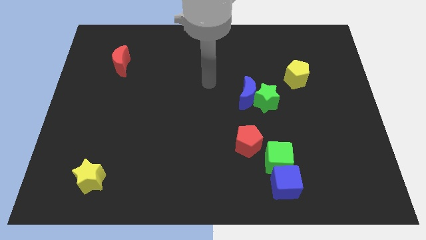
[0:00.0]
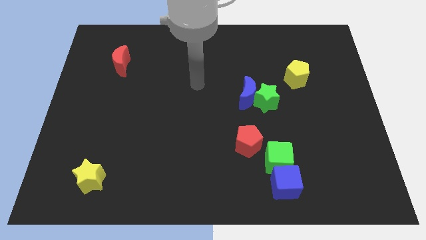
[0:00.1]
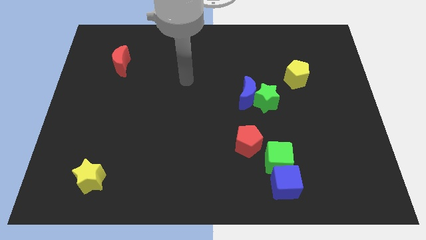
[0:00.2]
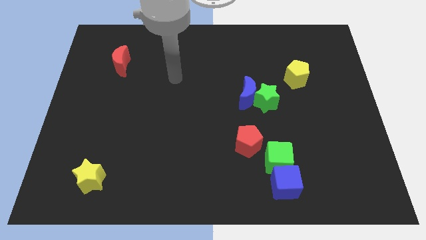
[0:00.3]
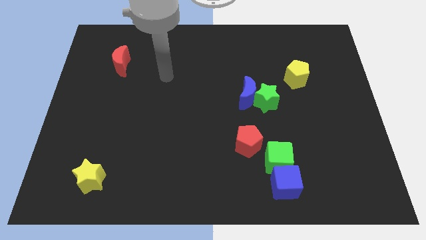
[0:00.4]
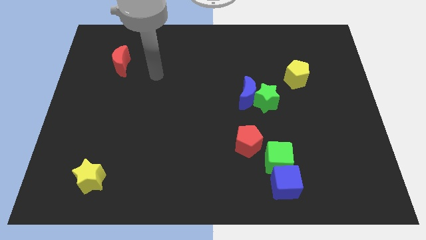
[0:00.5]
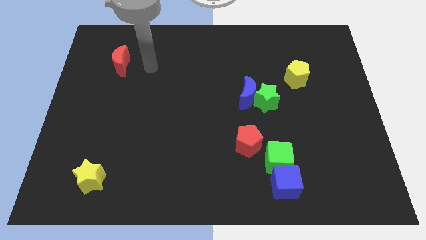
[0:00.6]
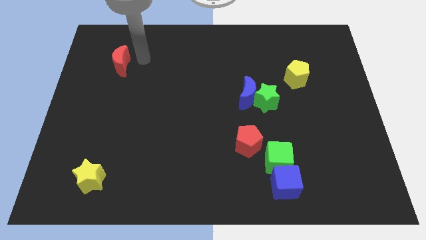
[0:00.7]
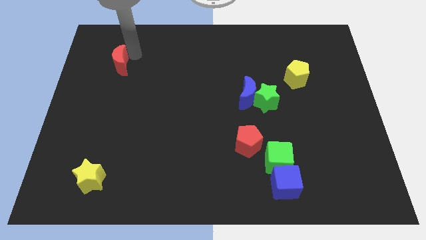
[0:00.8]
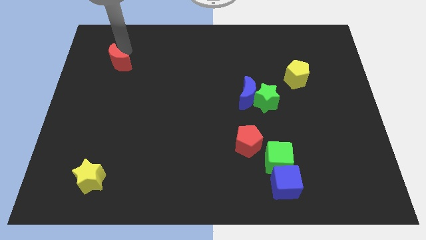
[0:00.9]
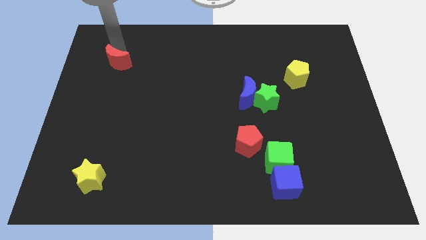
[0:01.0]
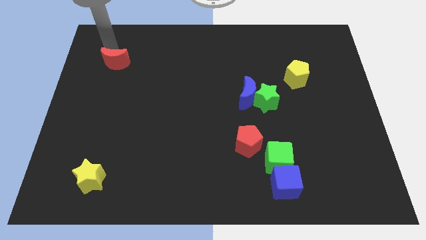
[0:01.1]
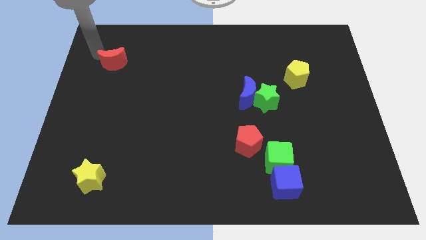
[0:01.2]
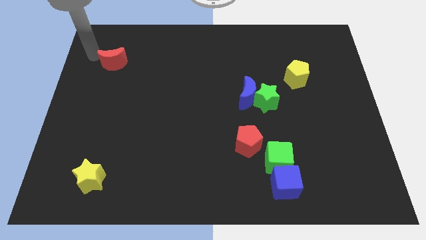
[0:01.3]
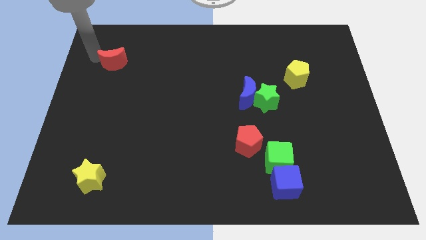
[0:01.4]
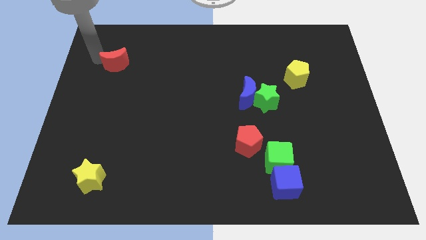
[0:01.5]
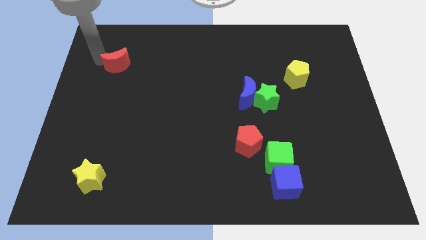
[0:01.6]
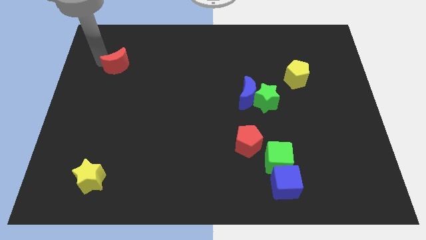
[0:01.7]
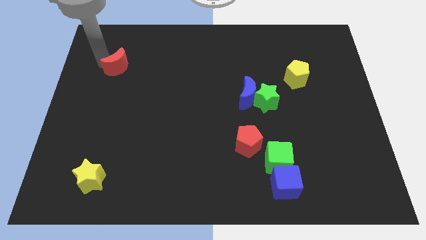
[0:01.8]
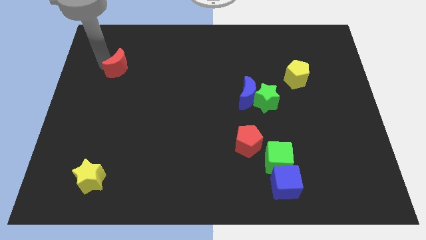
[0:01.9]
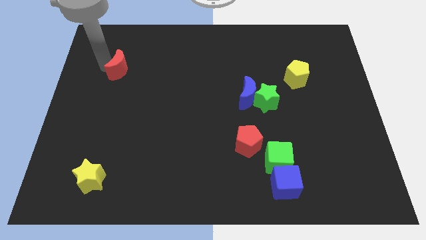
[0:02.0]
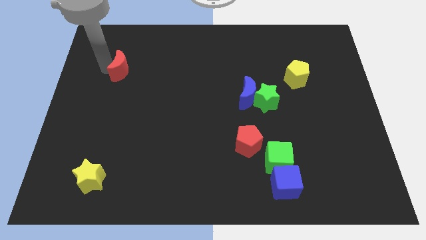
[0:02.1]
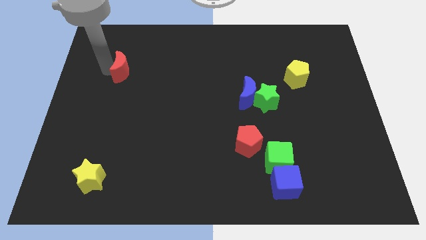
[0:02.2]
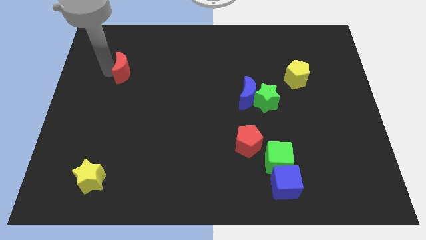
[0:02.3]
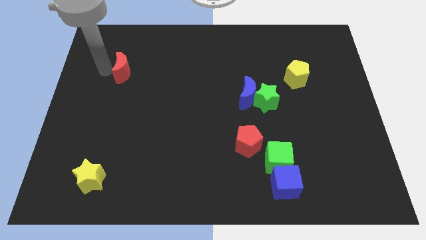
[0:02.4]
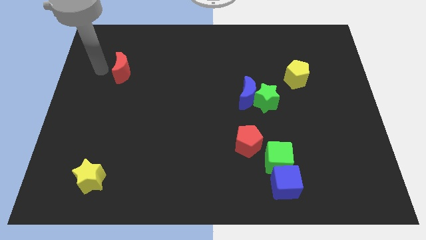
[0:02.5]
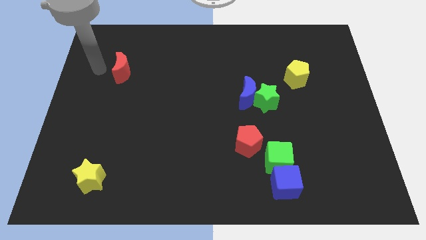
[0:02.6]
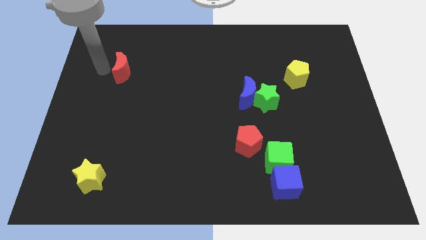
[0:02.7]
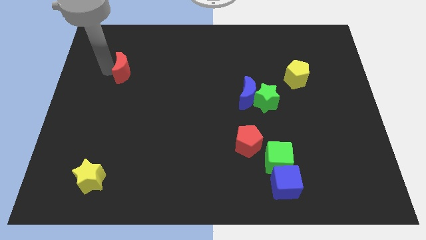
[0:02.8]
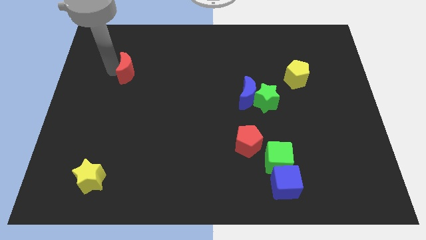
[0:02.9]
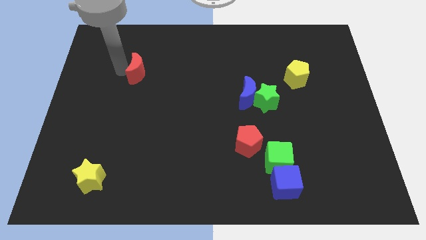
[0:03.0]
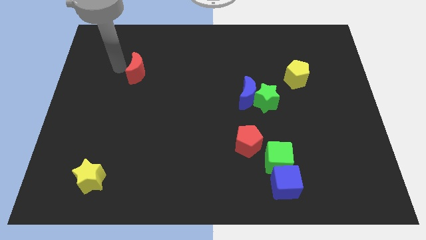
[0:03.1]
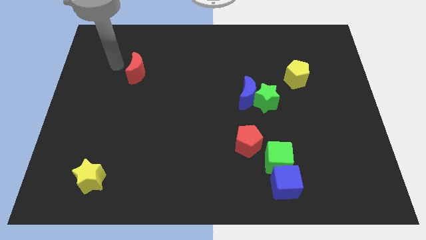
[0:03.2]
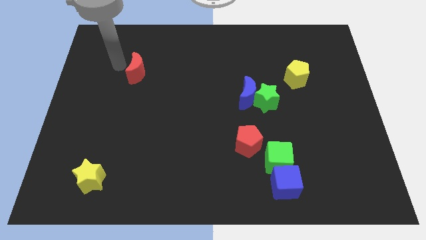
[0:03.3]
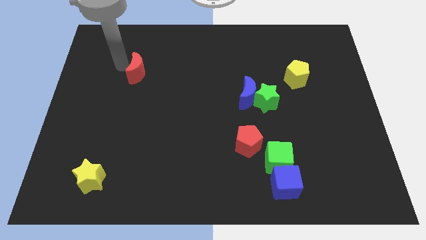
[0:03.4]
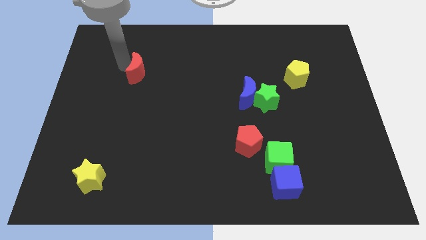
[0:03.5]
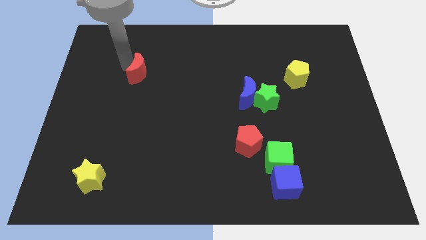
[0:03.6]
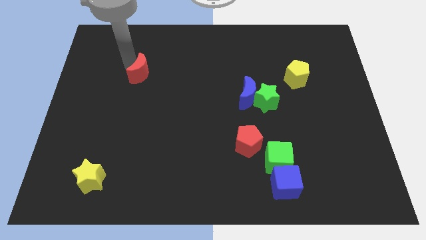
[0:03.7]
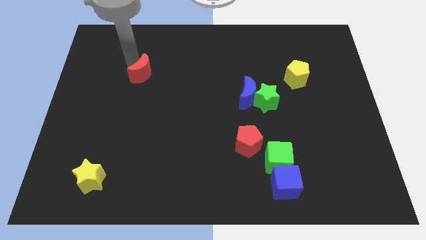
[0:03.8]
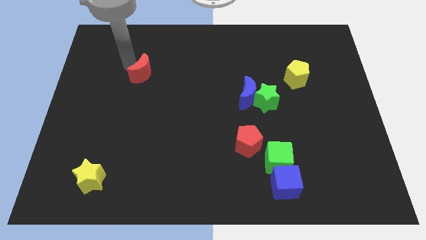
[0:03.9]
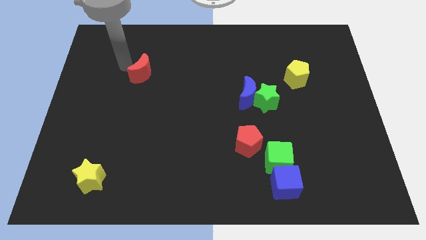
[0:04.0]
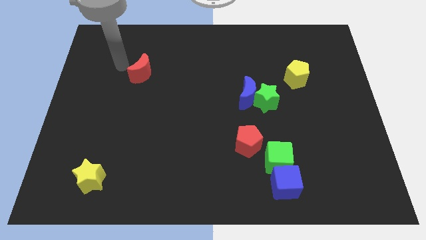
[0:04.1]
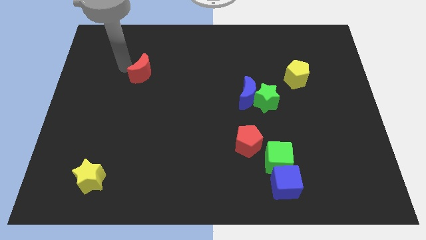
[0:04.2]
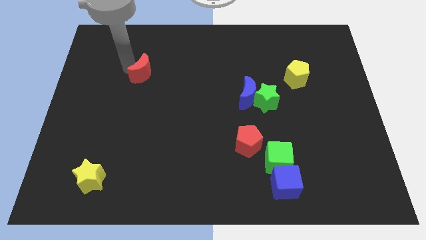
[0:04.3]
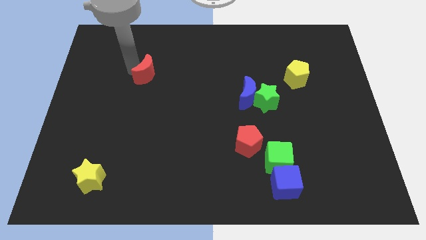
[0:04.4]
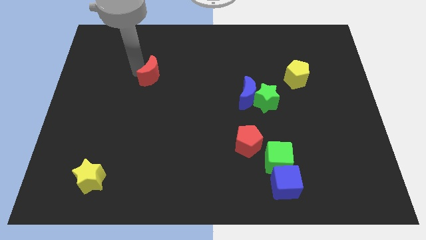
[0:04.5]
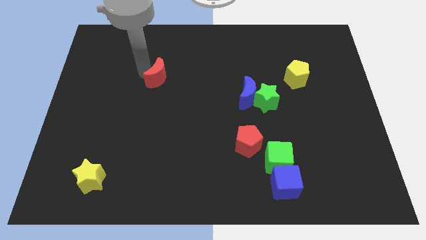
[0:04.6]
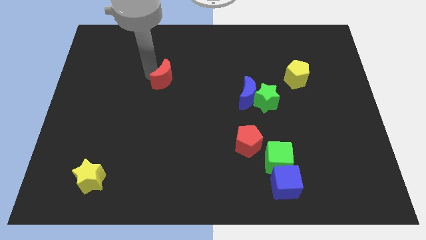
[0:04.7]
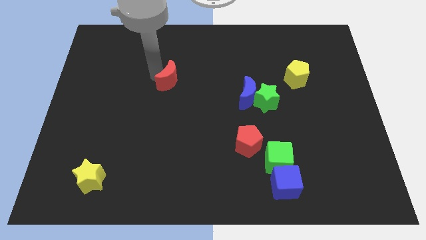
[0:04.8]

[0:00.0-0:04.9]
put the red moon to the middle

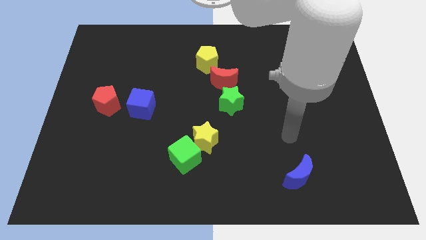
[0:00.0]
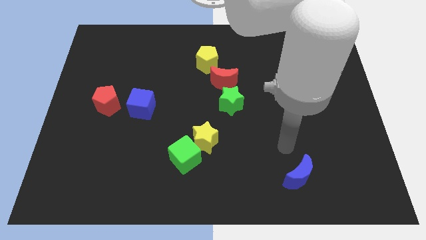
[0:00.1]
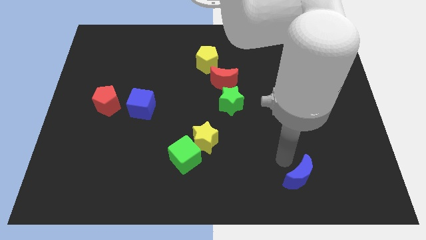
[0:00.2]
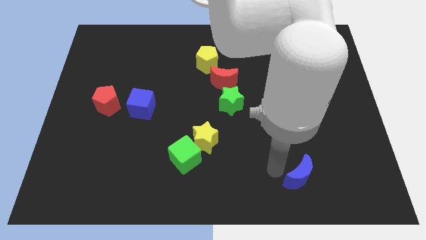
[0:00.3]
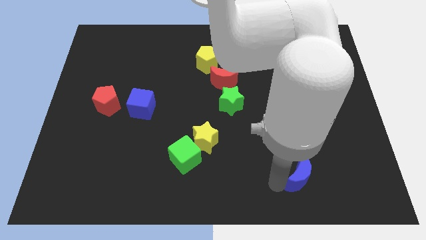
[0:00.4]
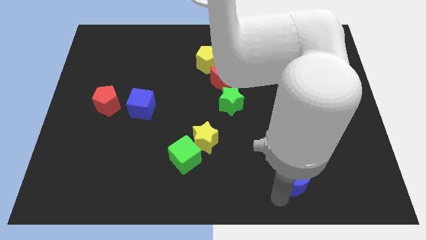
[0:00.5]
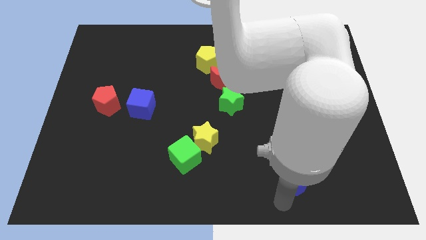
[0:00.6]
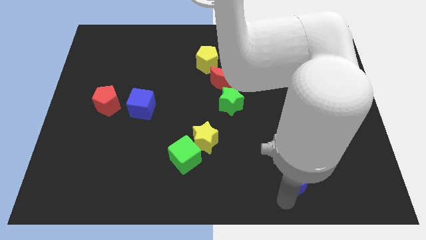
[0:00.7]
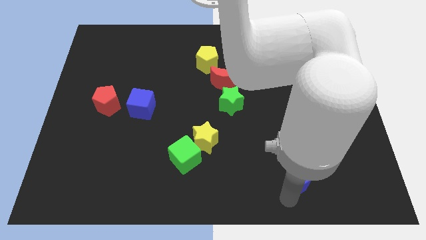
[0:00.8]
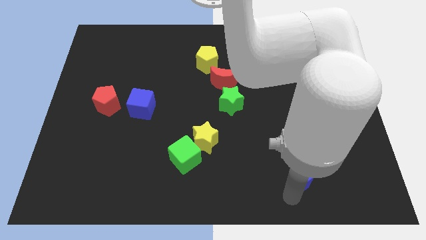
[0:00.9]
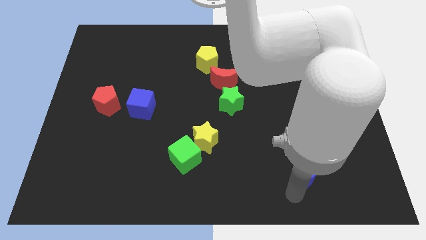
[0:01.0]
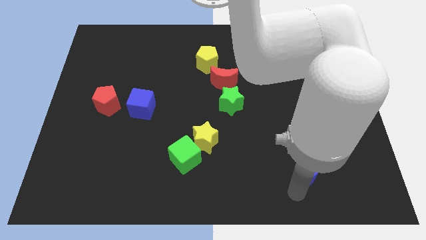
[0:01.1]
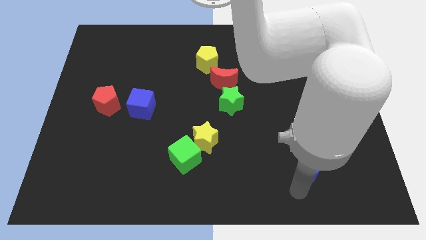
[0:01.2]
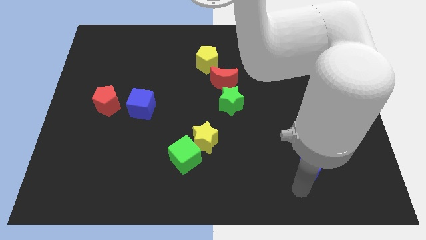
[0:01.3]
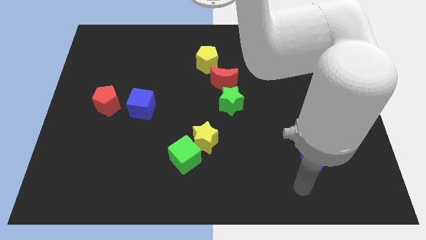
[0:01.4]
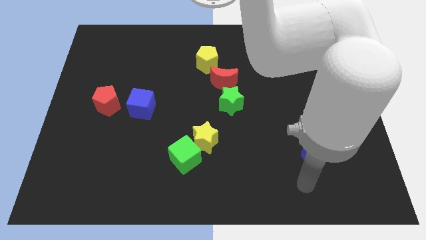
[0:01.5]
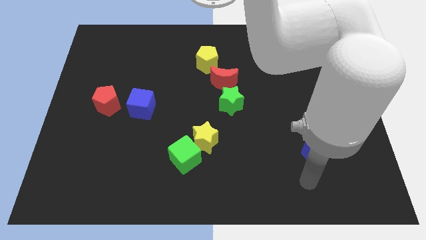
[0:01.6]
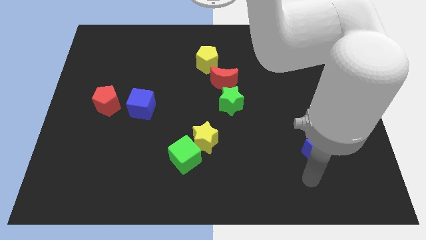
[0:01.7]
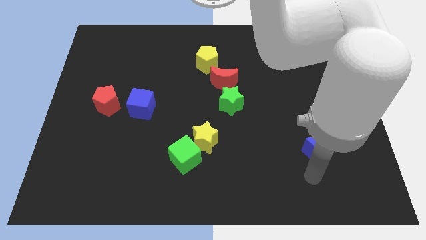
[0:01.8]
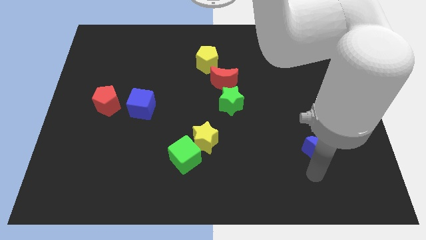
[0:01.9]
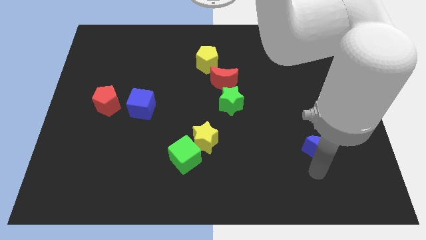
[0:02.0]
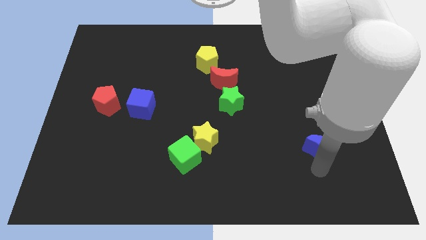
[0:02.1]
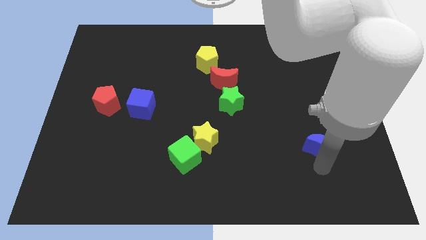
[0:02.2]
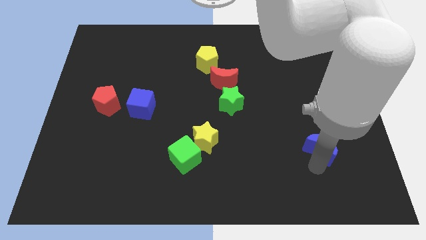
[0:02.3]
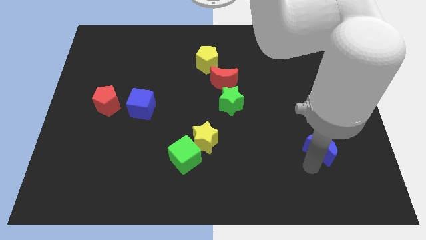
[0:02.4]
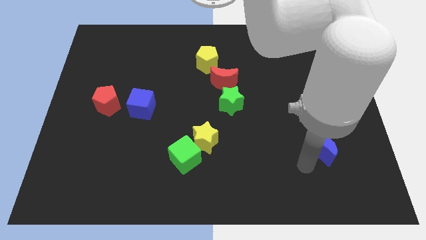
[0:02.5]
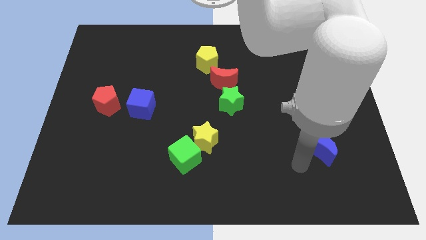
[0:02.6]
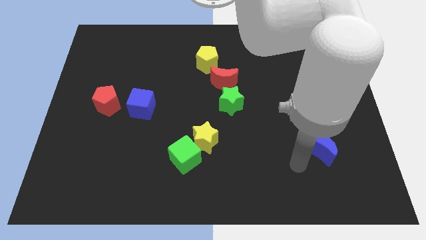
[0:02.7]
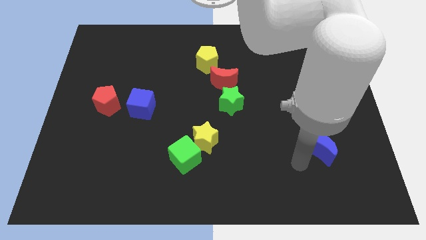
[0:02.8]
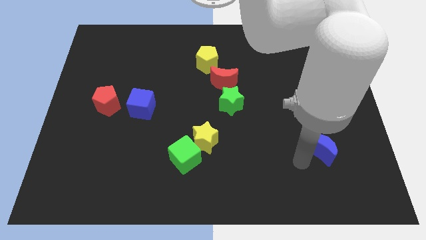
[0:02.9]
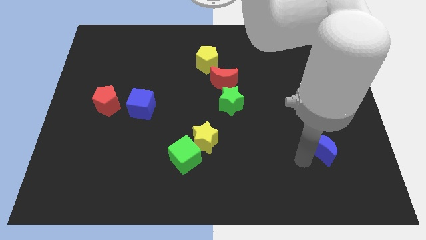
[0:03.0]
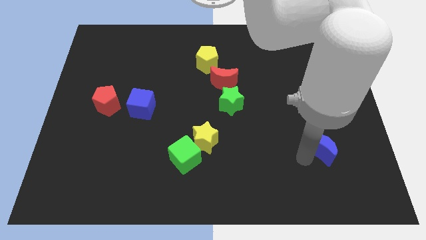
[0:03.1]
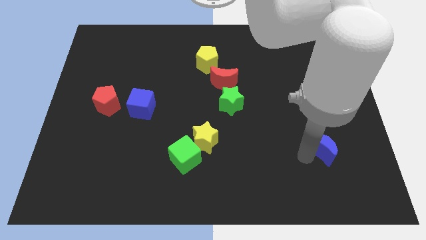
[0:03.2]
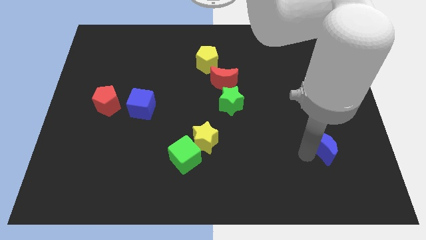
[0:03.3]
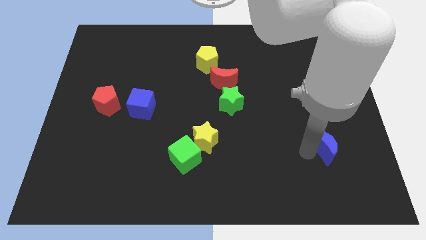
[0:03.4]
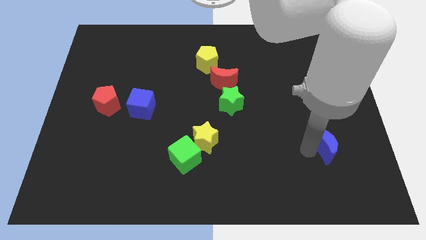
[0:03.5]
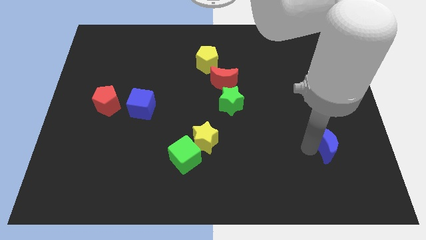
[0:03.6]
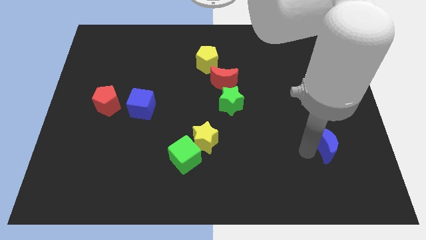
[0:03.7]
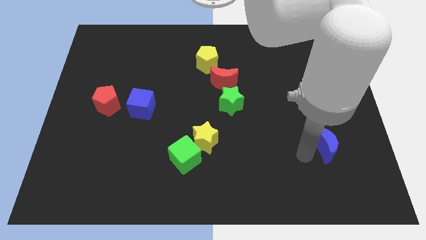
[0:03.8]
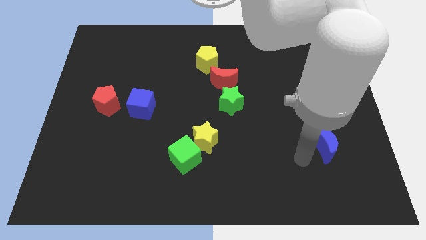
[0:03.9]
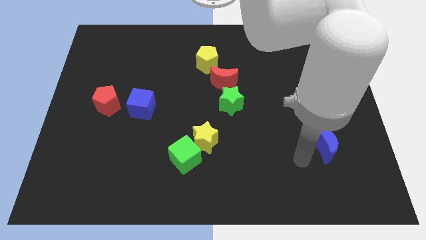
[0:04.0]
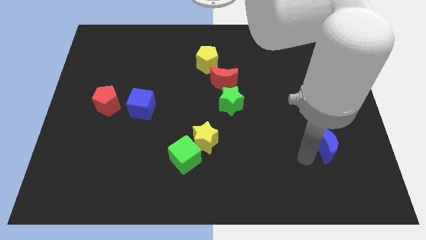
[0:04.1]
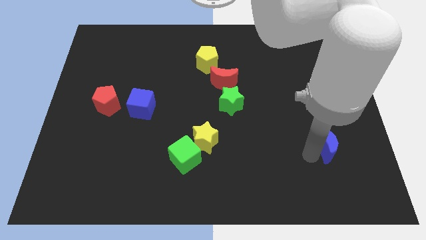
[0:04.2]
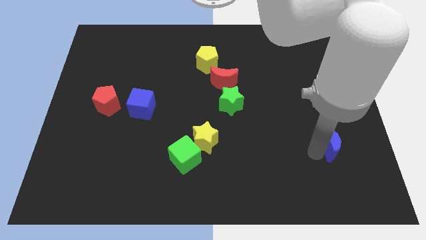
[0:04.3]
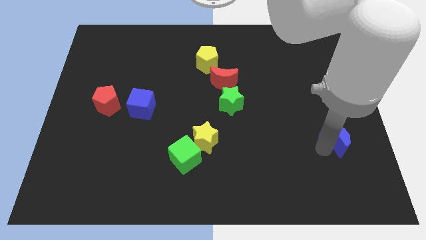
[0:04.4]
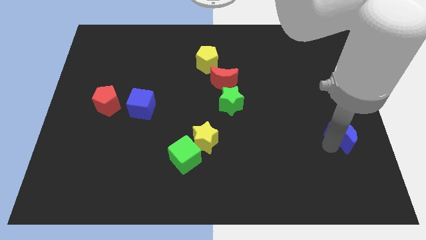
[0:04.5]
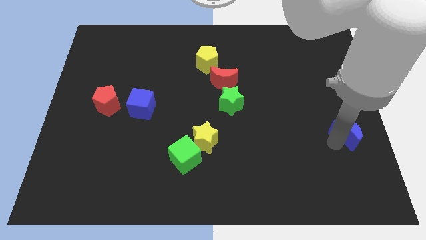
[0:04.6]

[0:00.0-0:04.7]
push the blue moon to the right side of the board
